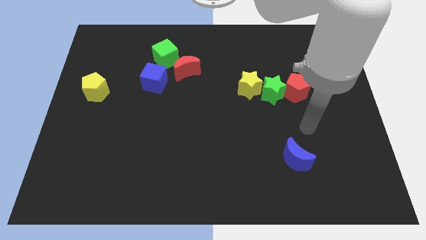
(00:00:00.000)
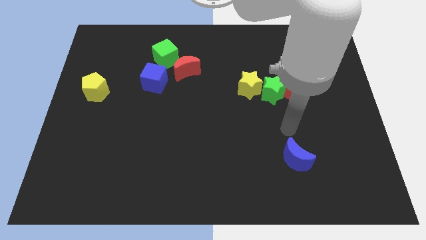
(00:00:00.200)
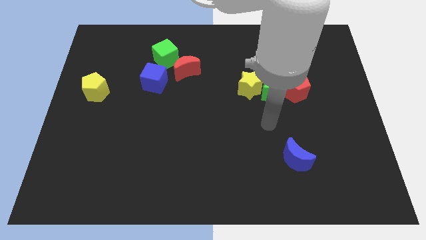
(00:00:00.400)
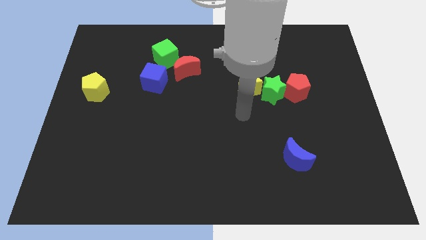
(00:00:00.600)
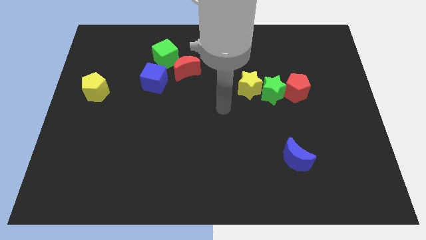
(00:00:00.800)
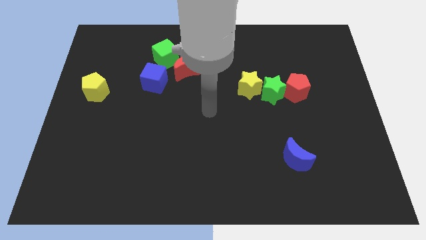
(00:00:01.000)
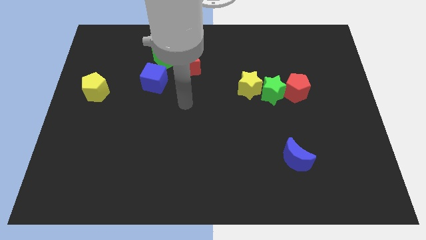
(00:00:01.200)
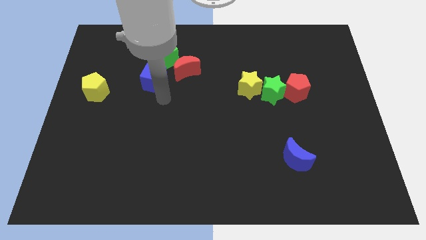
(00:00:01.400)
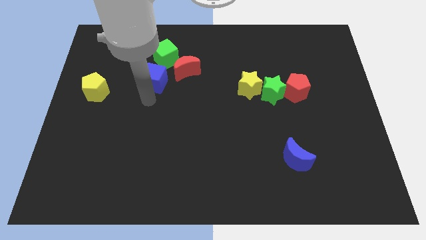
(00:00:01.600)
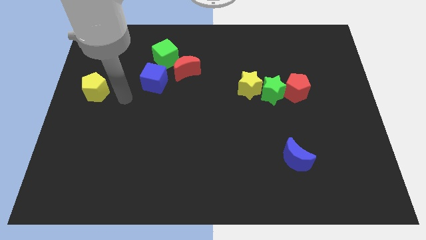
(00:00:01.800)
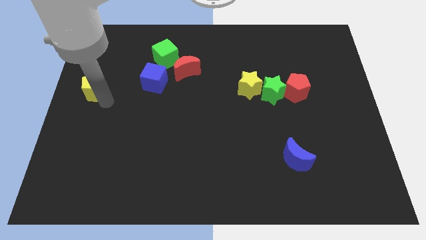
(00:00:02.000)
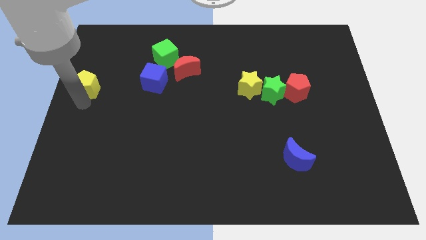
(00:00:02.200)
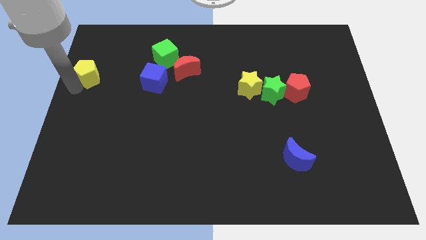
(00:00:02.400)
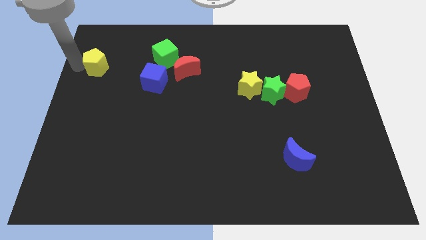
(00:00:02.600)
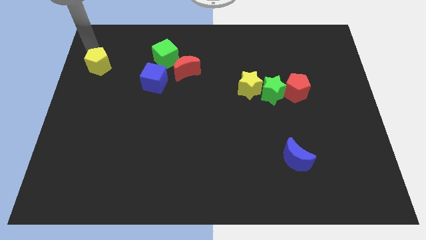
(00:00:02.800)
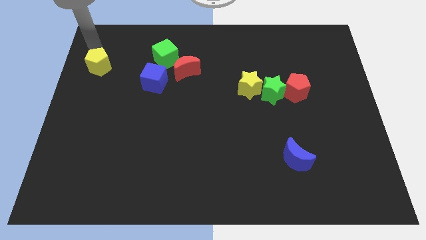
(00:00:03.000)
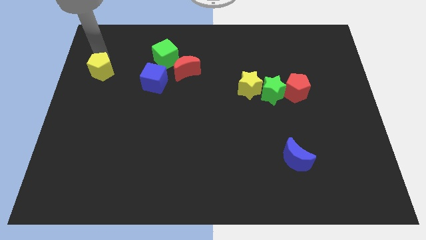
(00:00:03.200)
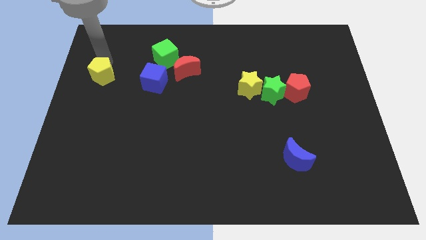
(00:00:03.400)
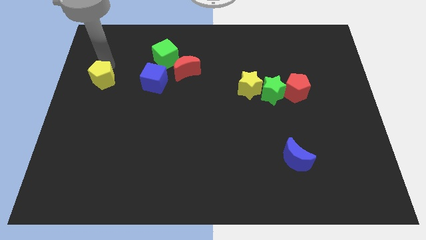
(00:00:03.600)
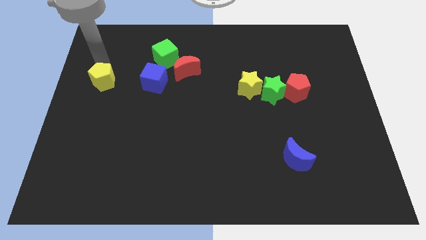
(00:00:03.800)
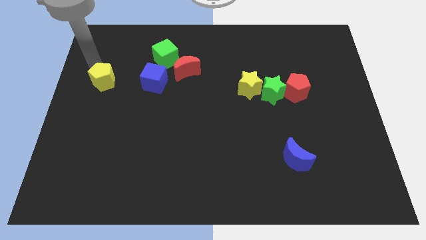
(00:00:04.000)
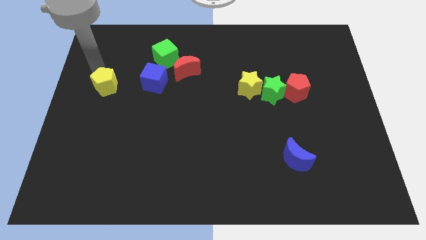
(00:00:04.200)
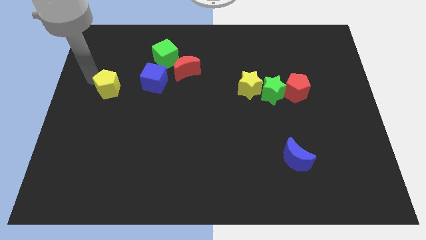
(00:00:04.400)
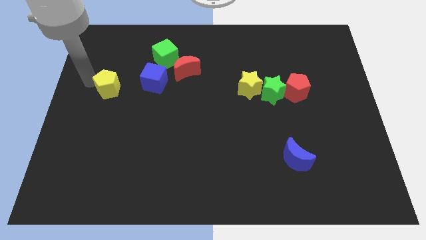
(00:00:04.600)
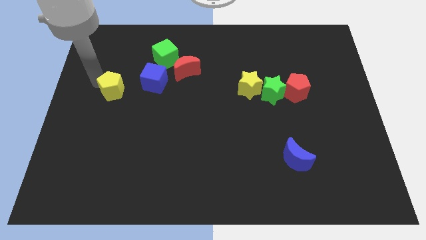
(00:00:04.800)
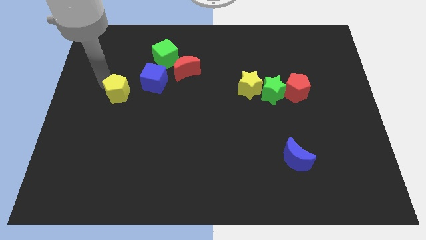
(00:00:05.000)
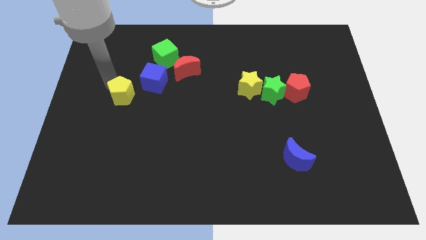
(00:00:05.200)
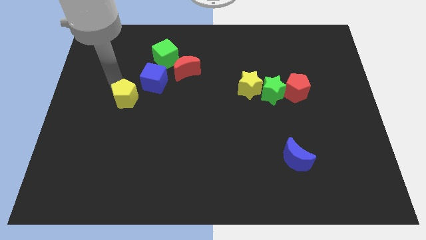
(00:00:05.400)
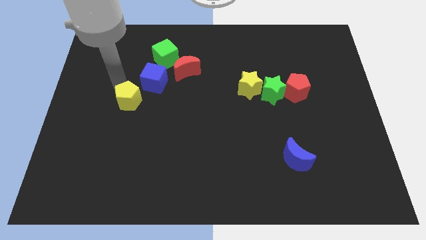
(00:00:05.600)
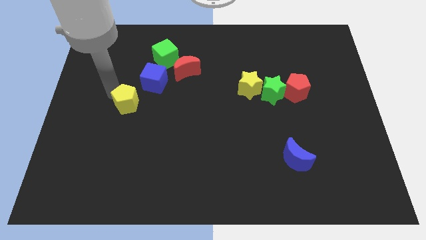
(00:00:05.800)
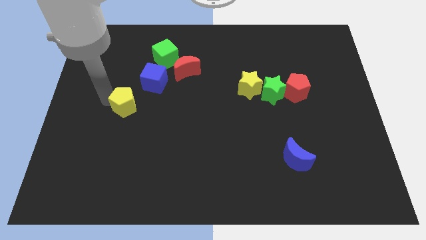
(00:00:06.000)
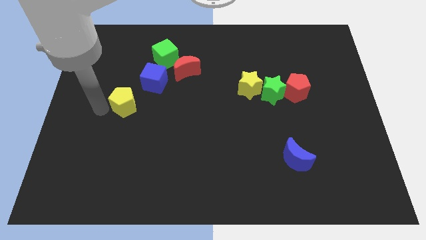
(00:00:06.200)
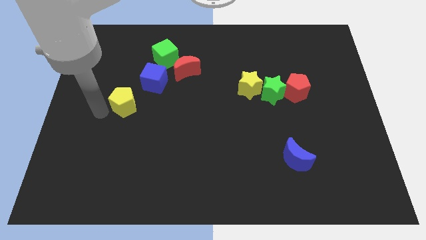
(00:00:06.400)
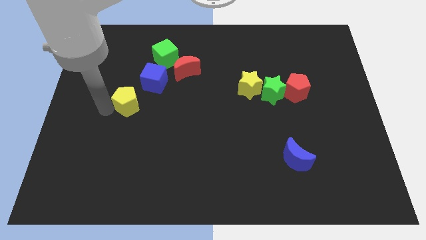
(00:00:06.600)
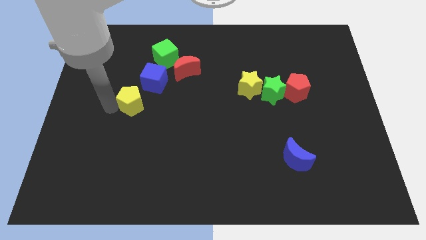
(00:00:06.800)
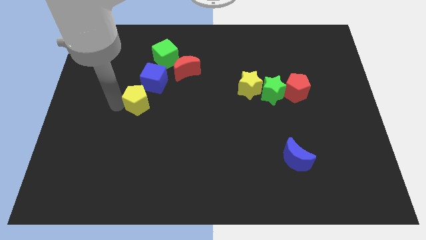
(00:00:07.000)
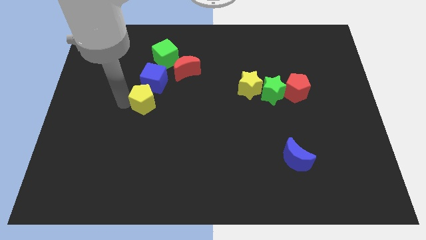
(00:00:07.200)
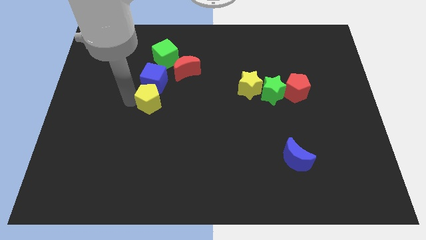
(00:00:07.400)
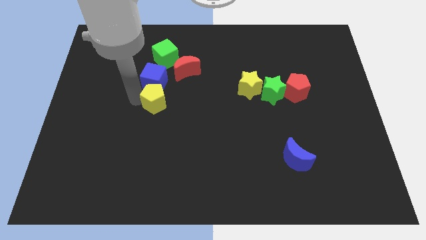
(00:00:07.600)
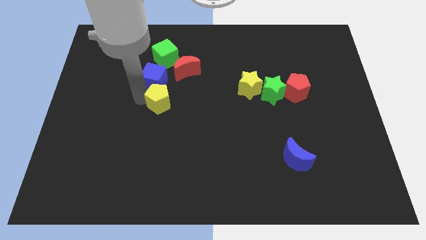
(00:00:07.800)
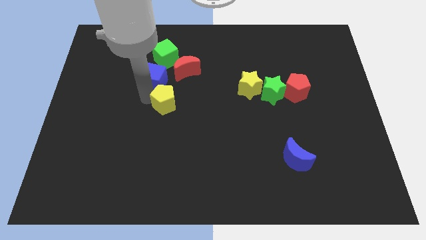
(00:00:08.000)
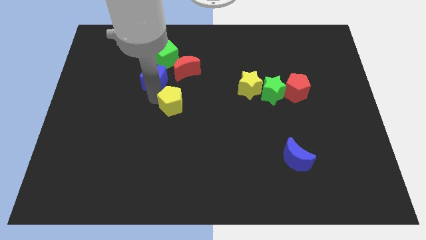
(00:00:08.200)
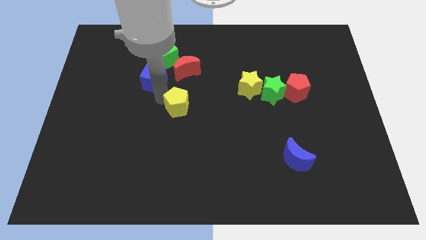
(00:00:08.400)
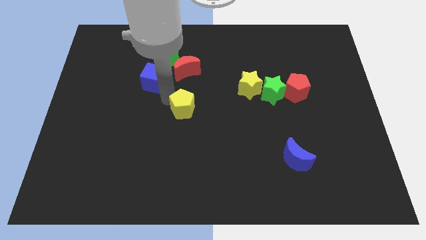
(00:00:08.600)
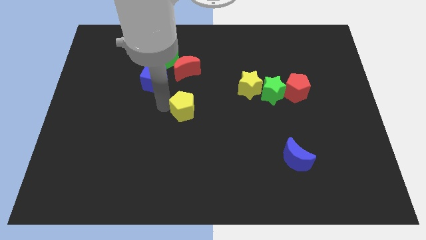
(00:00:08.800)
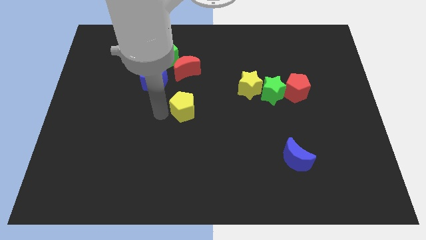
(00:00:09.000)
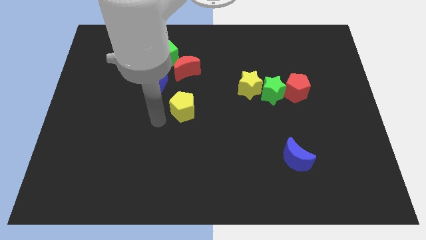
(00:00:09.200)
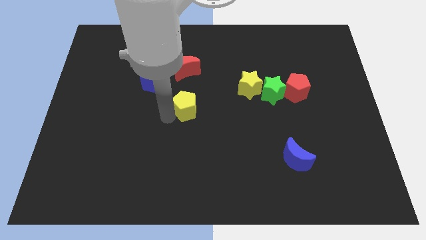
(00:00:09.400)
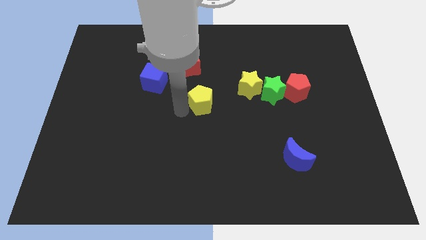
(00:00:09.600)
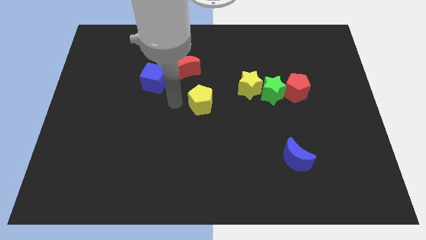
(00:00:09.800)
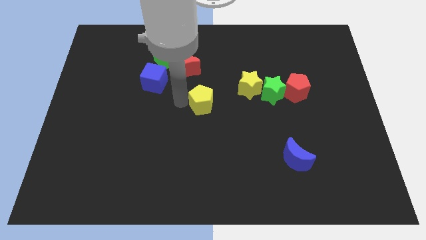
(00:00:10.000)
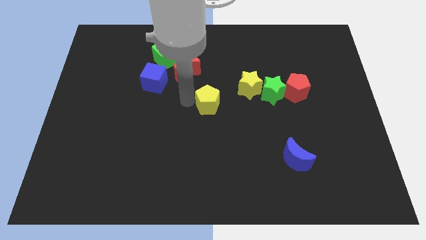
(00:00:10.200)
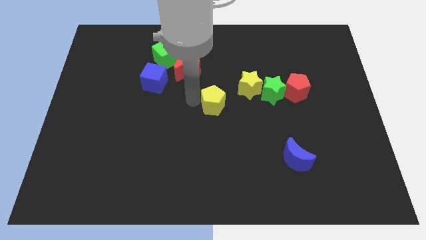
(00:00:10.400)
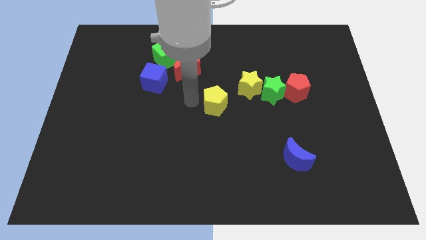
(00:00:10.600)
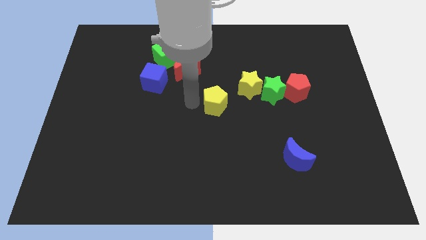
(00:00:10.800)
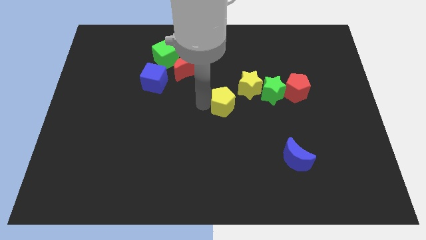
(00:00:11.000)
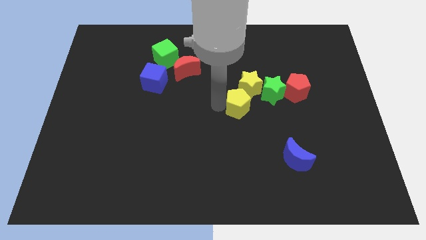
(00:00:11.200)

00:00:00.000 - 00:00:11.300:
move the yellow pentagon to the bottom left of the green star

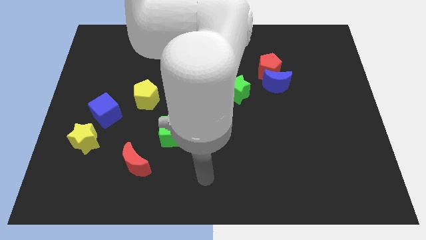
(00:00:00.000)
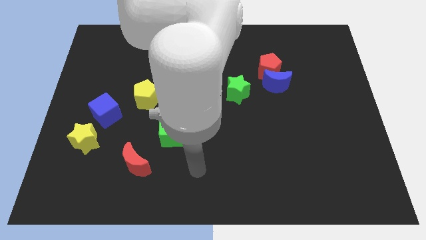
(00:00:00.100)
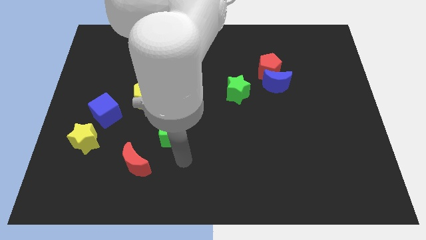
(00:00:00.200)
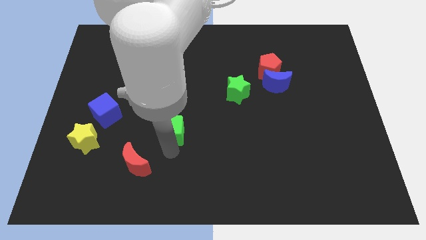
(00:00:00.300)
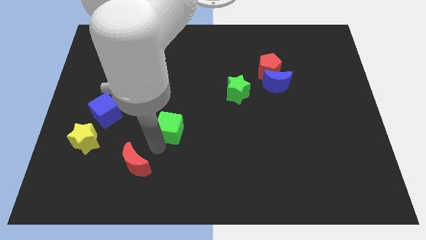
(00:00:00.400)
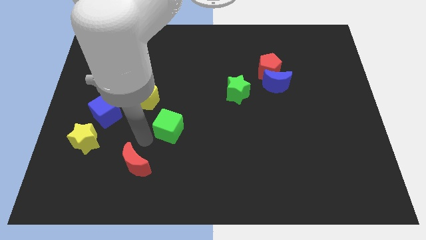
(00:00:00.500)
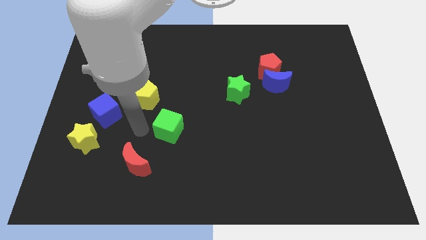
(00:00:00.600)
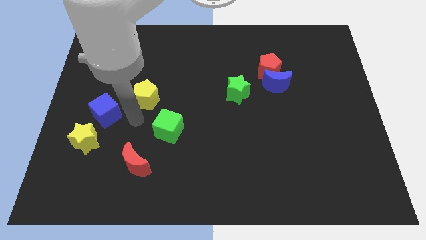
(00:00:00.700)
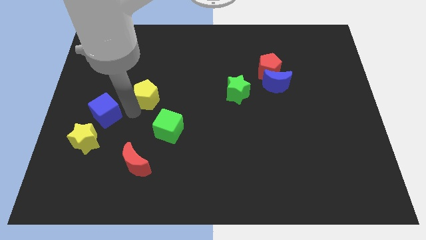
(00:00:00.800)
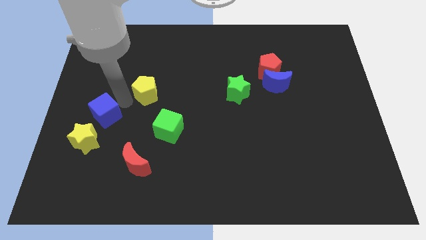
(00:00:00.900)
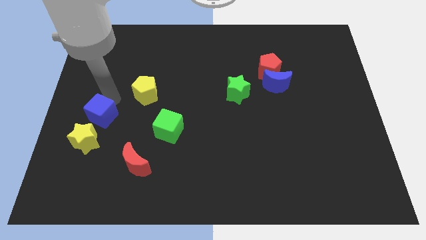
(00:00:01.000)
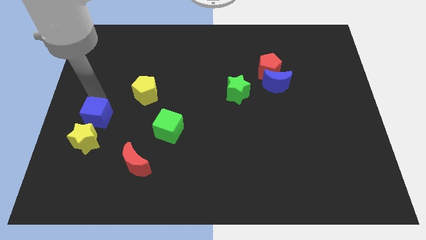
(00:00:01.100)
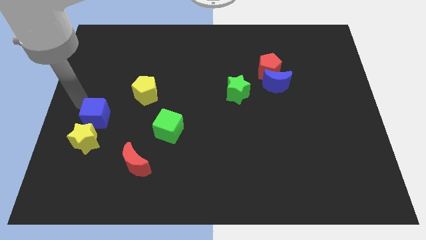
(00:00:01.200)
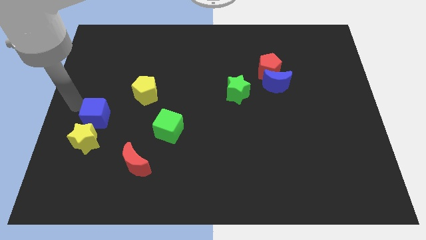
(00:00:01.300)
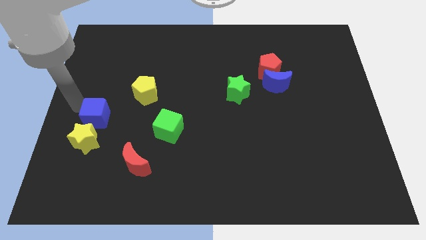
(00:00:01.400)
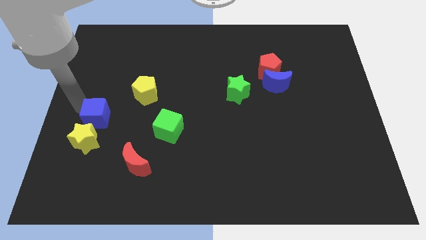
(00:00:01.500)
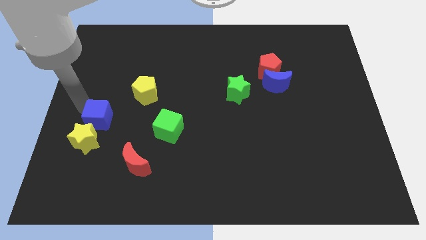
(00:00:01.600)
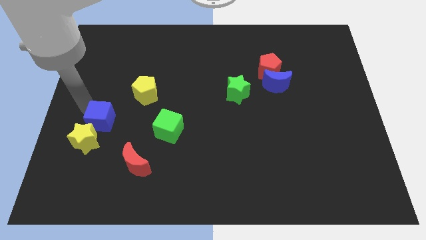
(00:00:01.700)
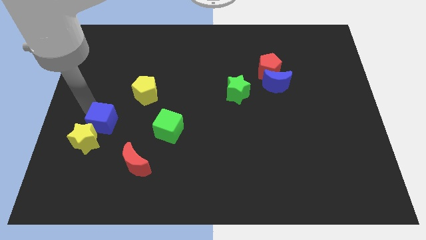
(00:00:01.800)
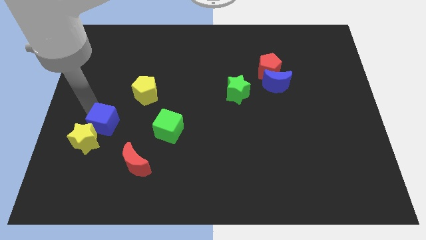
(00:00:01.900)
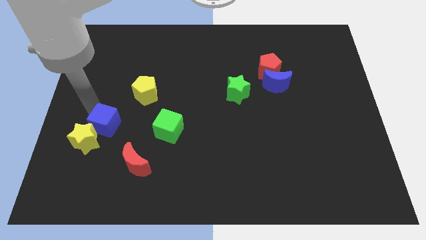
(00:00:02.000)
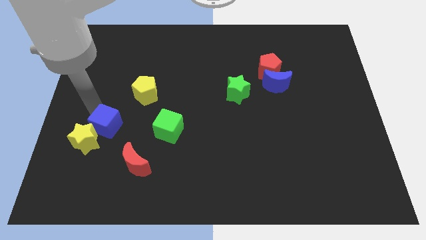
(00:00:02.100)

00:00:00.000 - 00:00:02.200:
slide the blue cube to the right of the yellow star
